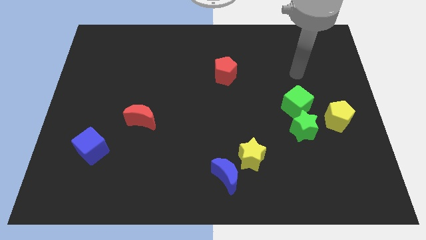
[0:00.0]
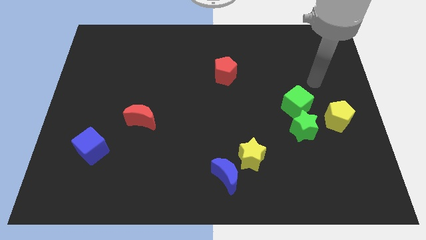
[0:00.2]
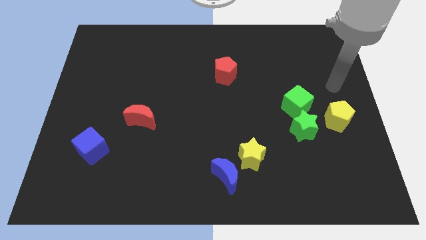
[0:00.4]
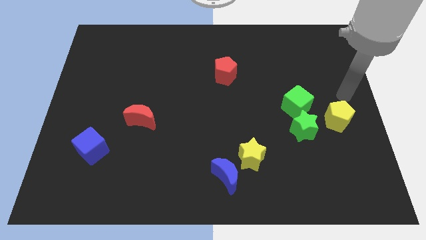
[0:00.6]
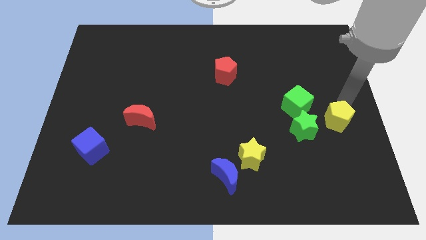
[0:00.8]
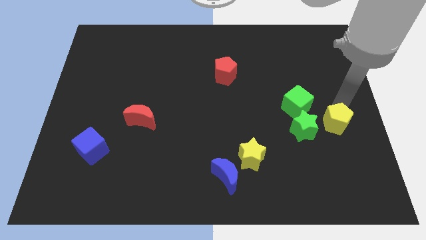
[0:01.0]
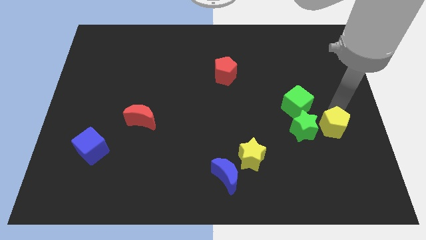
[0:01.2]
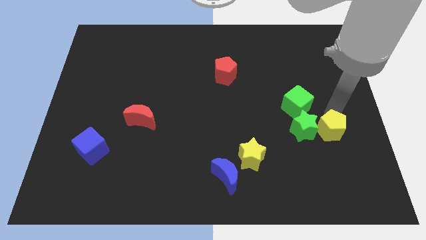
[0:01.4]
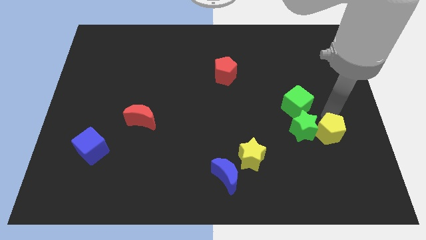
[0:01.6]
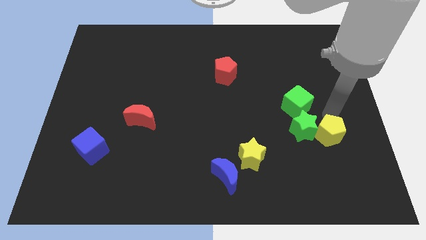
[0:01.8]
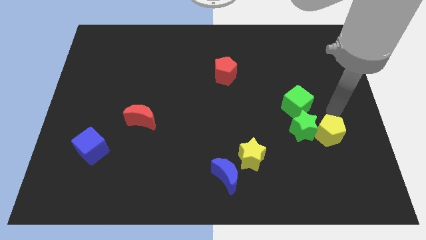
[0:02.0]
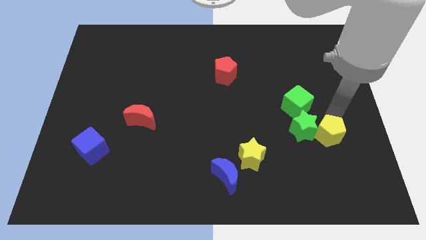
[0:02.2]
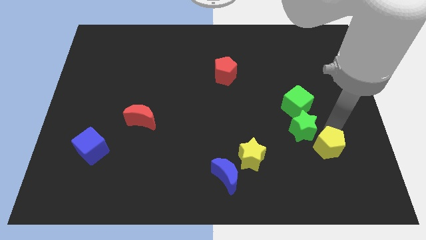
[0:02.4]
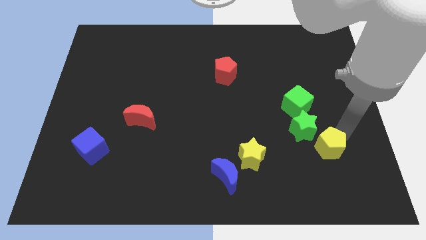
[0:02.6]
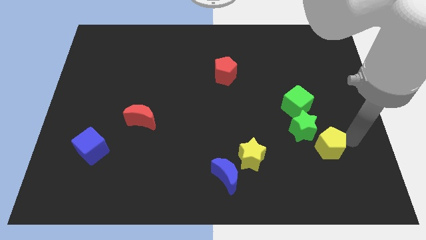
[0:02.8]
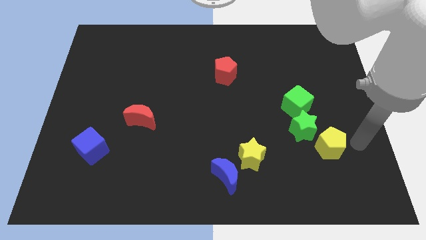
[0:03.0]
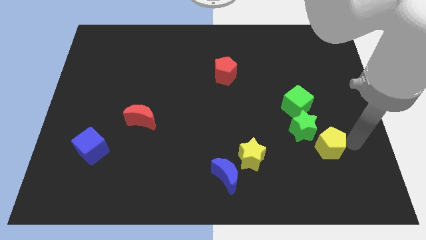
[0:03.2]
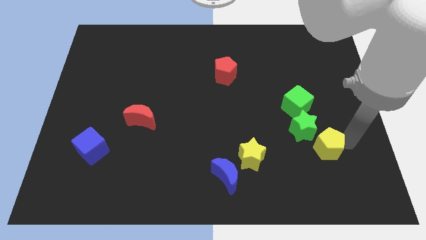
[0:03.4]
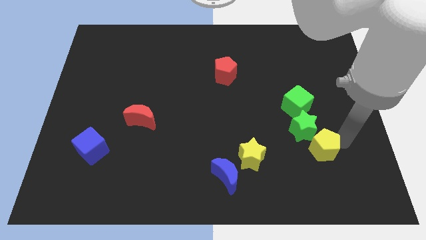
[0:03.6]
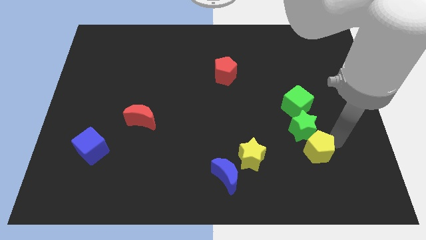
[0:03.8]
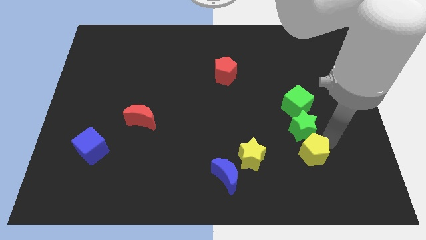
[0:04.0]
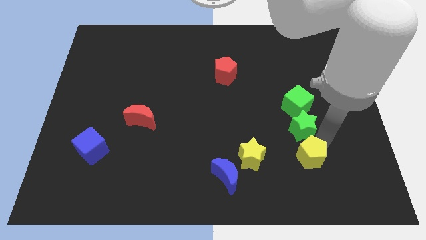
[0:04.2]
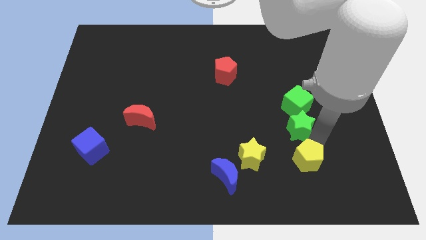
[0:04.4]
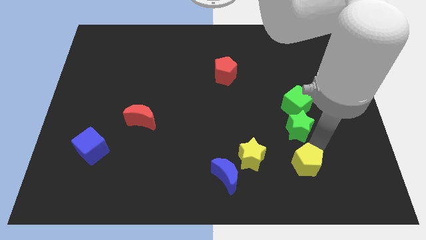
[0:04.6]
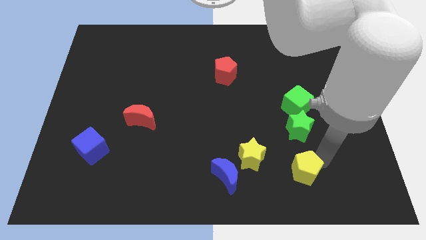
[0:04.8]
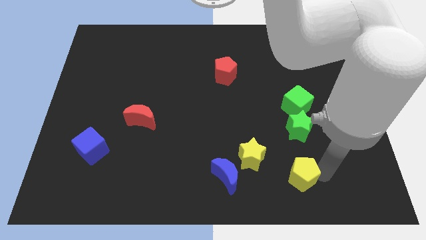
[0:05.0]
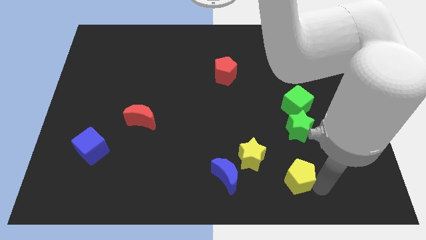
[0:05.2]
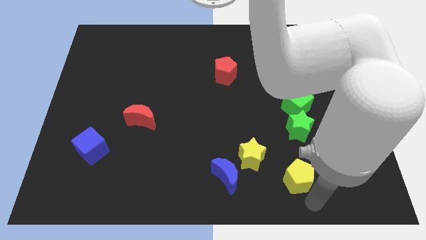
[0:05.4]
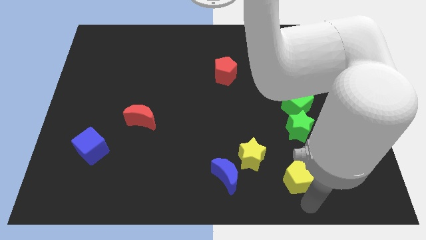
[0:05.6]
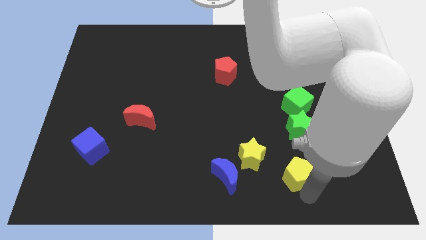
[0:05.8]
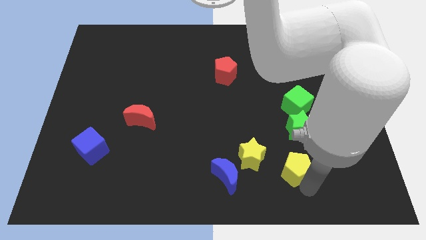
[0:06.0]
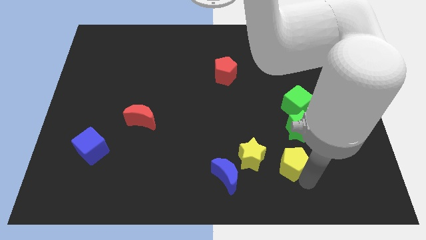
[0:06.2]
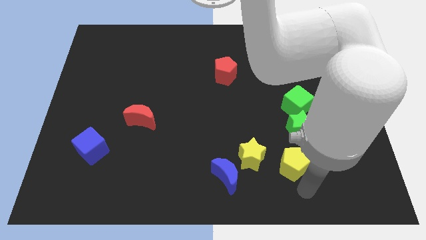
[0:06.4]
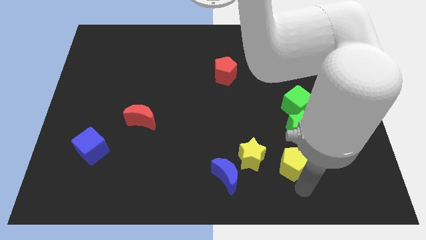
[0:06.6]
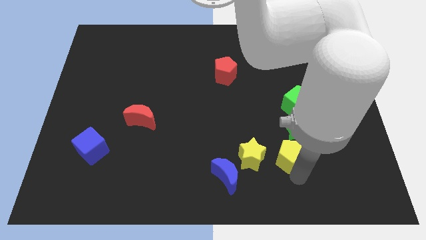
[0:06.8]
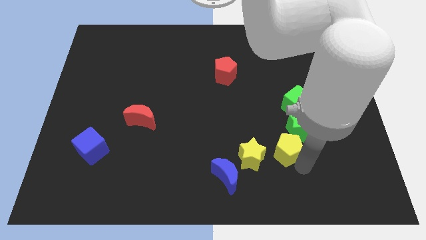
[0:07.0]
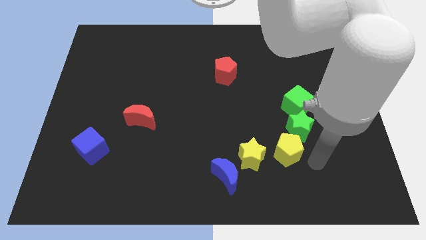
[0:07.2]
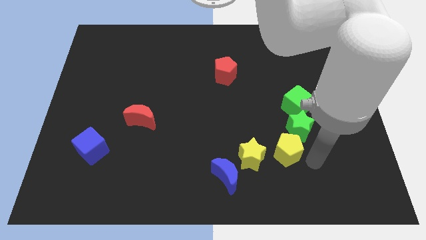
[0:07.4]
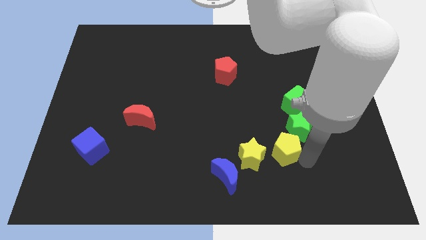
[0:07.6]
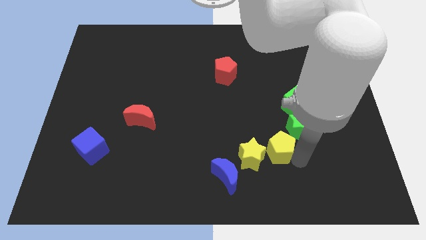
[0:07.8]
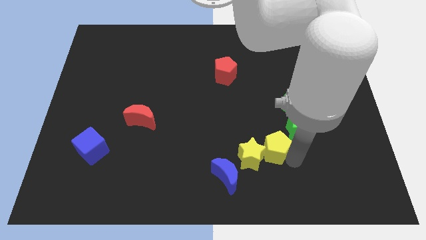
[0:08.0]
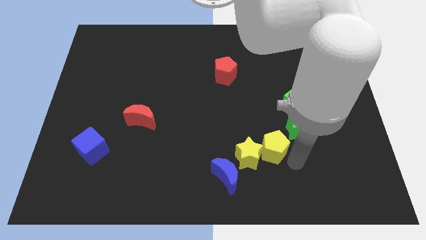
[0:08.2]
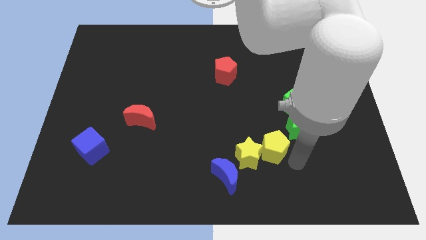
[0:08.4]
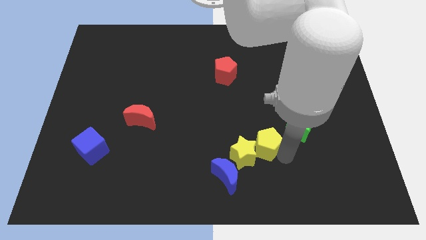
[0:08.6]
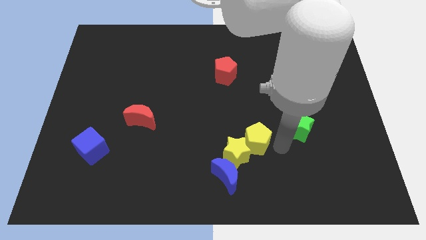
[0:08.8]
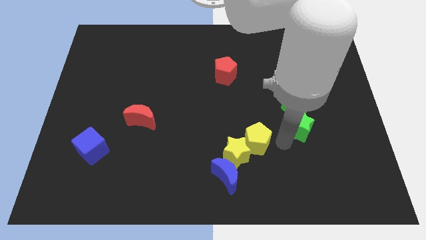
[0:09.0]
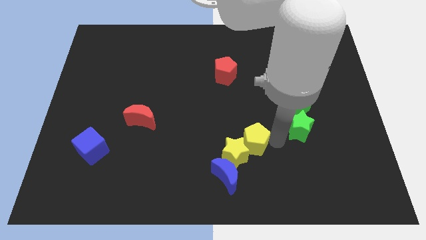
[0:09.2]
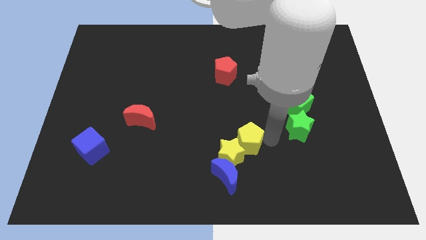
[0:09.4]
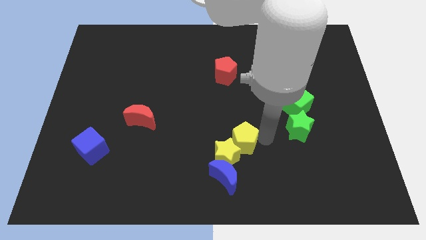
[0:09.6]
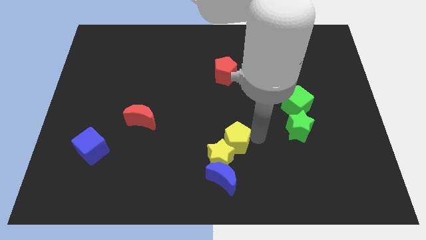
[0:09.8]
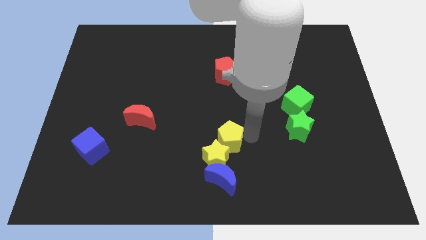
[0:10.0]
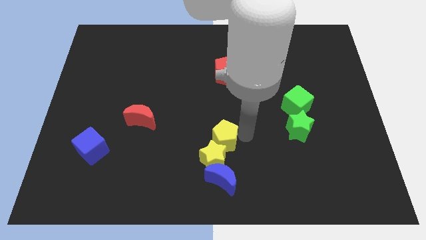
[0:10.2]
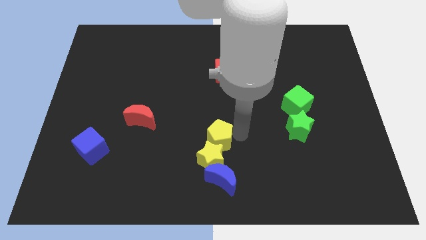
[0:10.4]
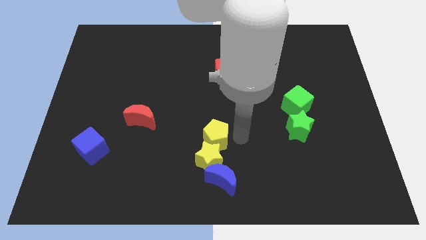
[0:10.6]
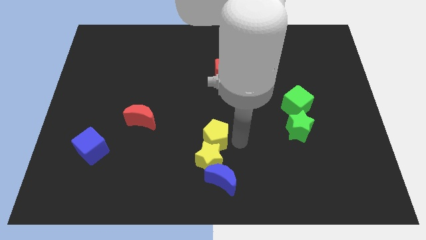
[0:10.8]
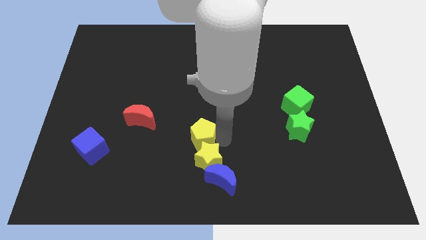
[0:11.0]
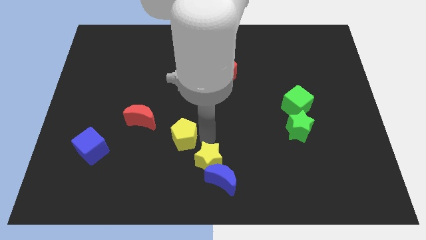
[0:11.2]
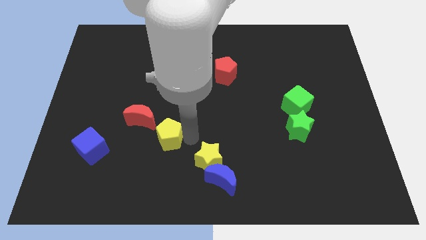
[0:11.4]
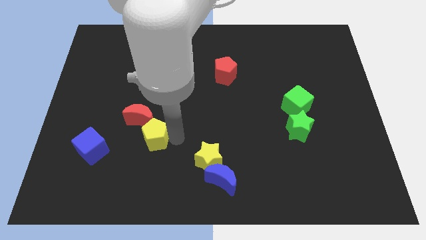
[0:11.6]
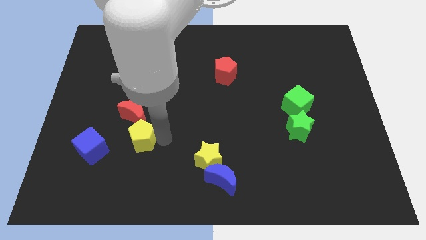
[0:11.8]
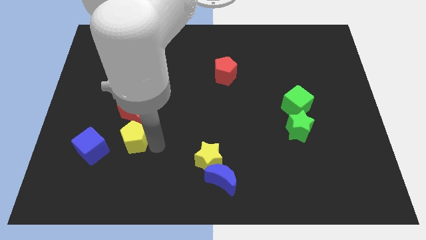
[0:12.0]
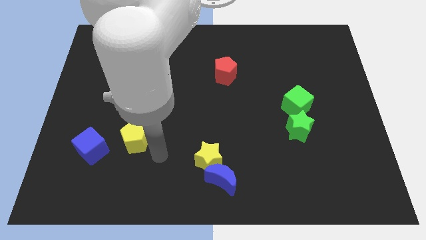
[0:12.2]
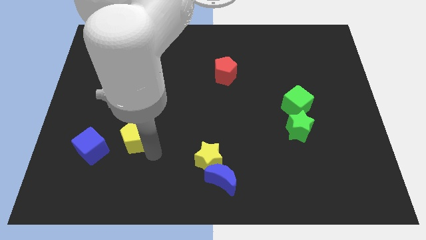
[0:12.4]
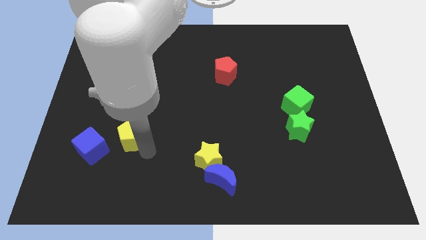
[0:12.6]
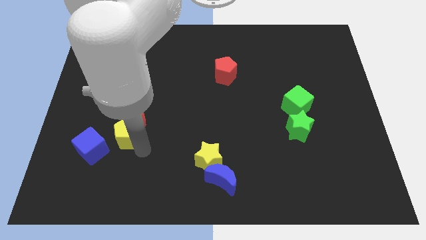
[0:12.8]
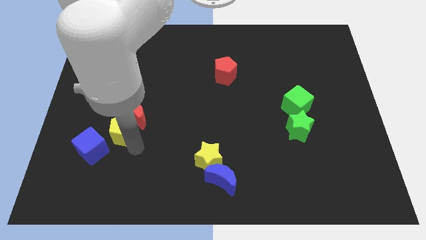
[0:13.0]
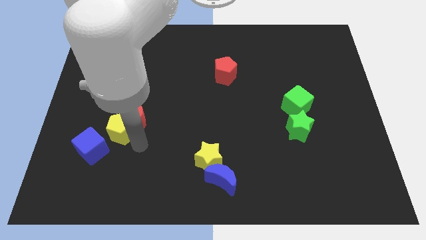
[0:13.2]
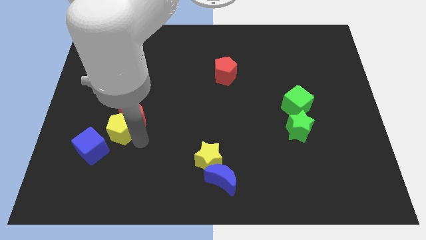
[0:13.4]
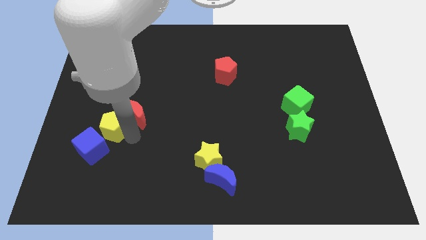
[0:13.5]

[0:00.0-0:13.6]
push the yellow pentagon left of the red moon

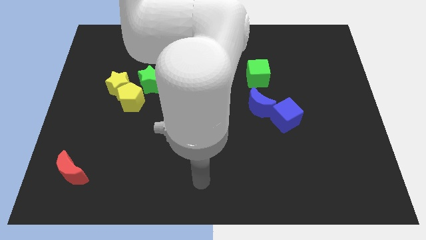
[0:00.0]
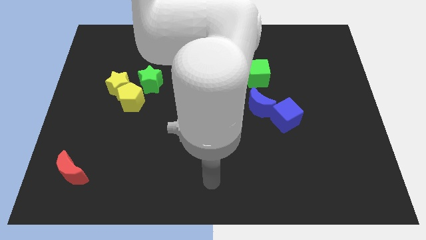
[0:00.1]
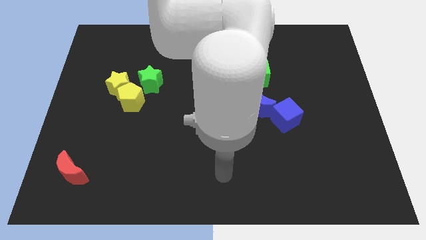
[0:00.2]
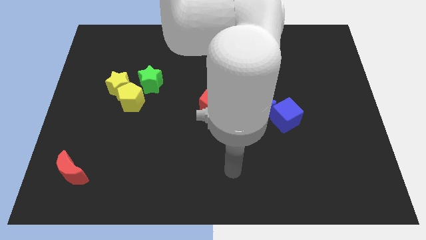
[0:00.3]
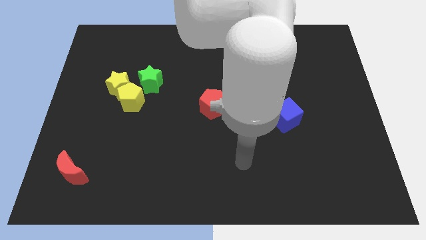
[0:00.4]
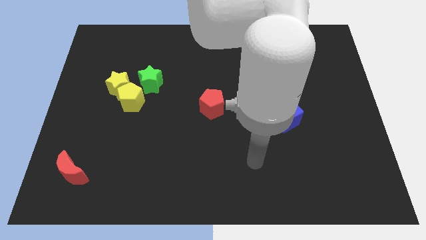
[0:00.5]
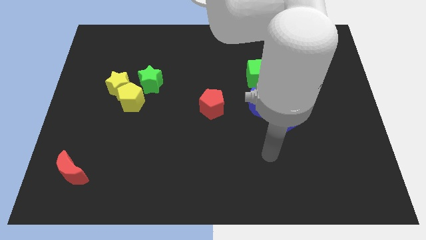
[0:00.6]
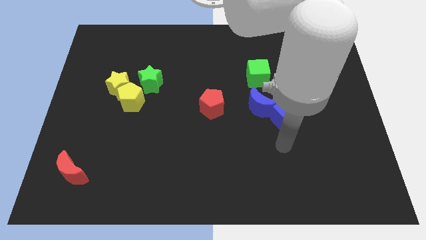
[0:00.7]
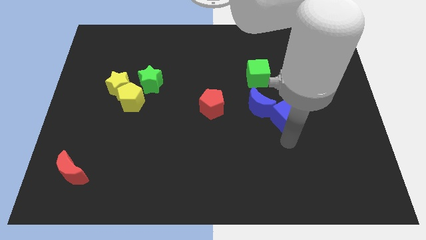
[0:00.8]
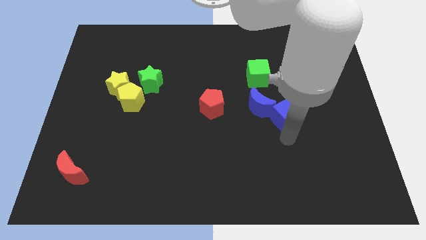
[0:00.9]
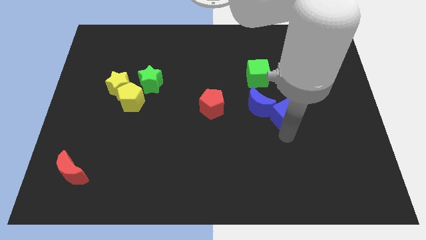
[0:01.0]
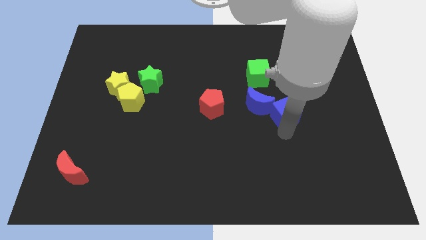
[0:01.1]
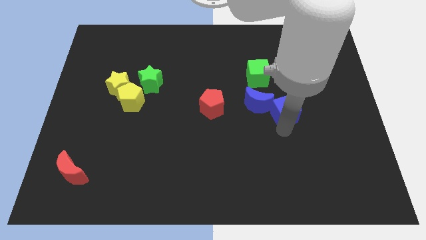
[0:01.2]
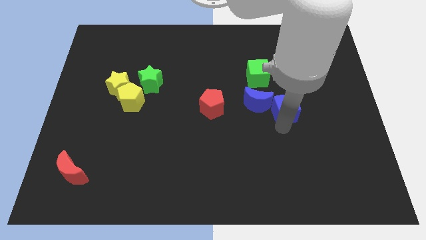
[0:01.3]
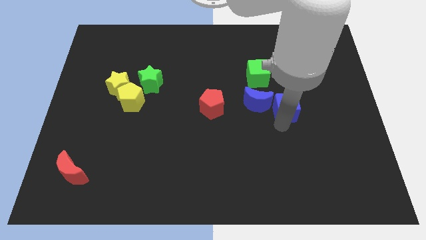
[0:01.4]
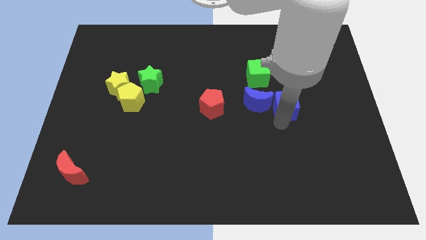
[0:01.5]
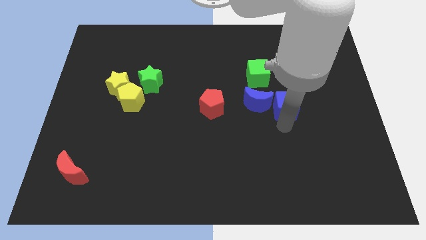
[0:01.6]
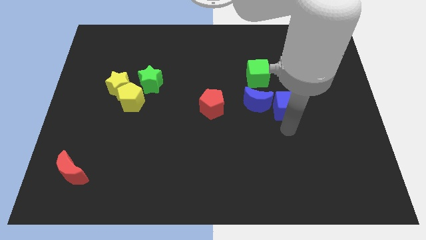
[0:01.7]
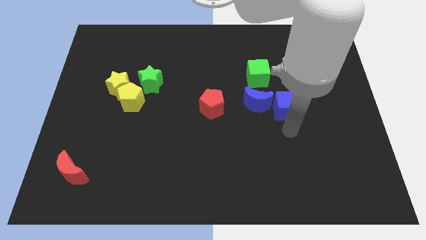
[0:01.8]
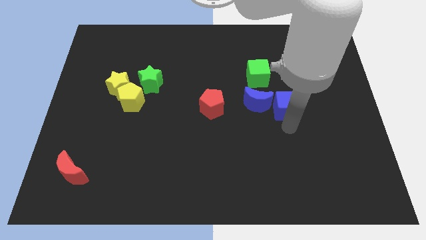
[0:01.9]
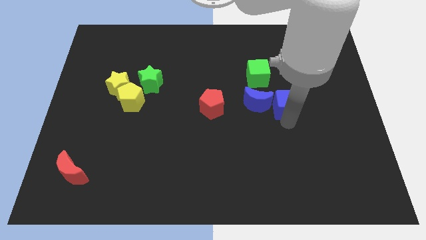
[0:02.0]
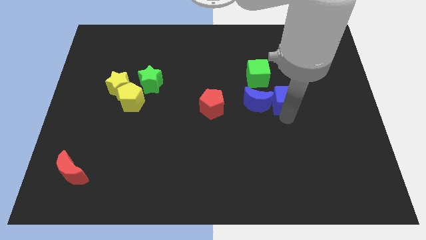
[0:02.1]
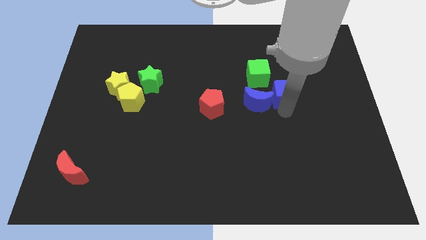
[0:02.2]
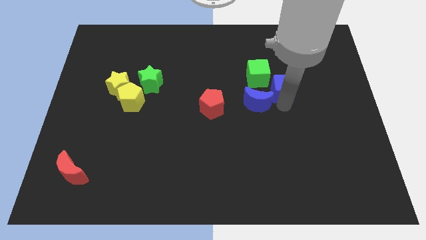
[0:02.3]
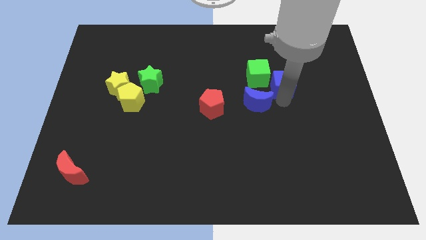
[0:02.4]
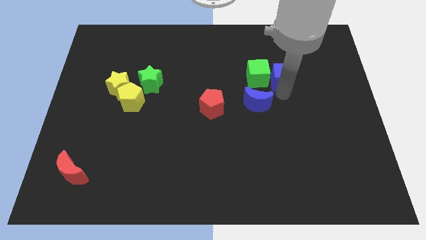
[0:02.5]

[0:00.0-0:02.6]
put the blue cube to the top right side of the green cube
